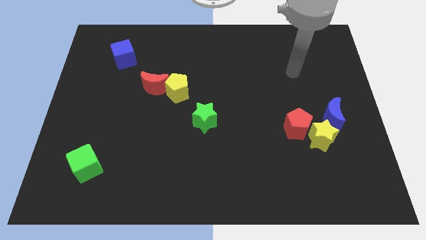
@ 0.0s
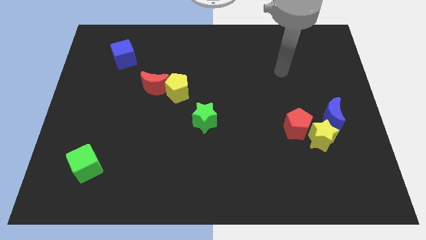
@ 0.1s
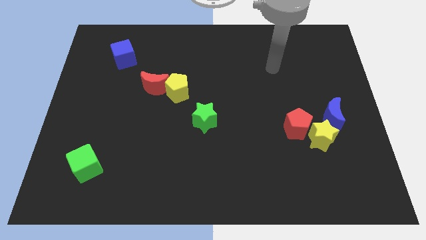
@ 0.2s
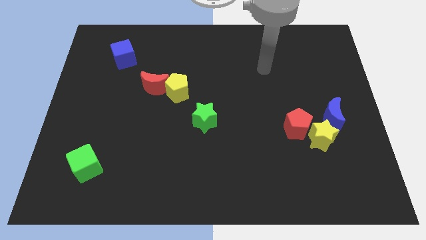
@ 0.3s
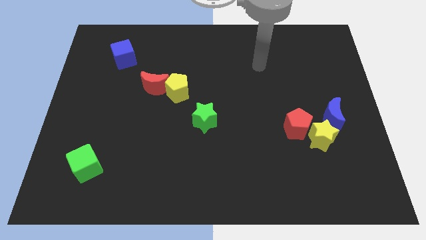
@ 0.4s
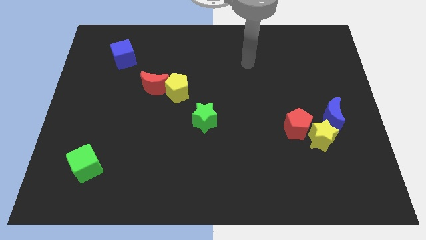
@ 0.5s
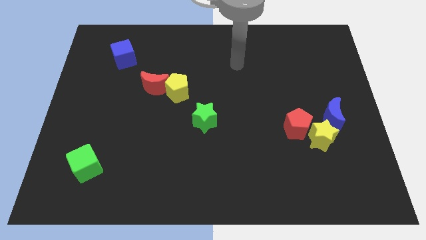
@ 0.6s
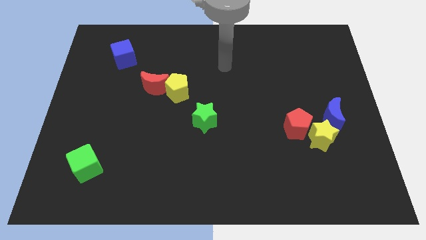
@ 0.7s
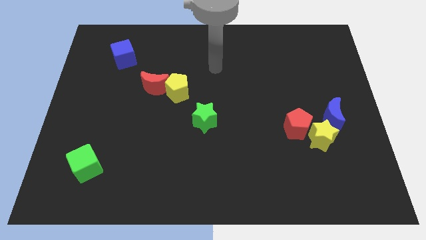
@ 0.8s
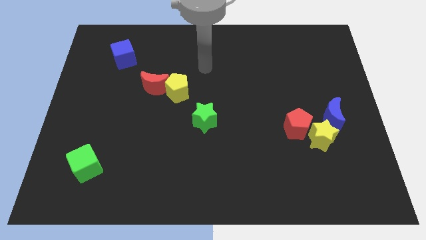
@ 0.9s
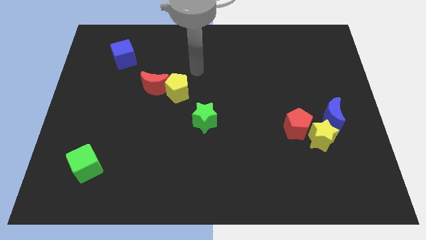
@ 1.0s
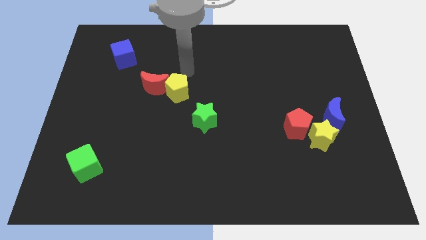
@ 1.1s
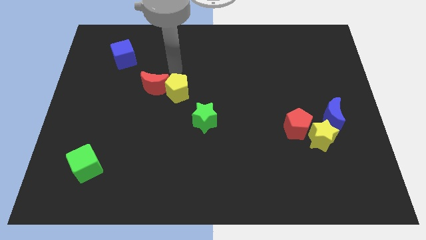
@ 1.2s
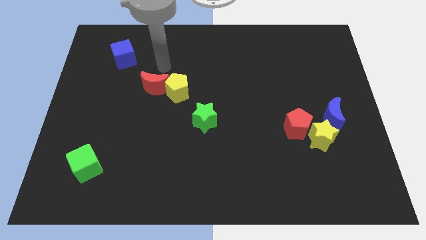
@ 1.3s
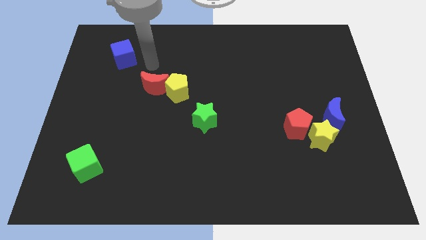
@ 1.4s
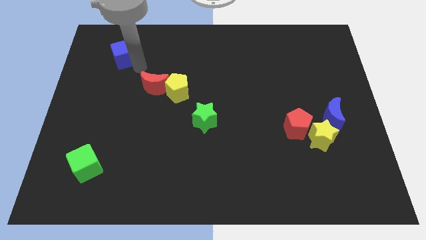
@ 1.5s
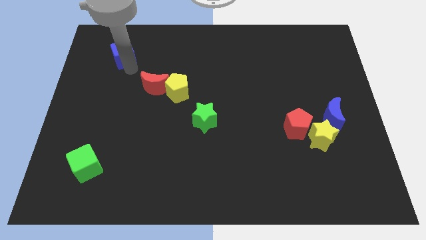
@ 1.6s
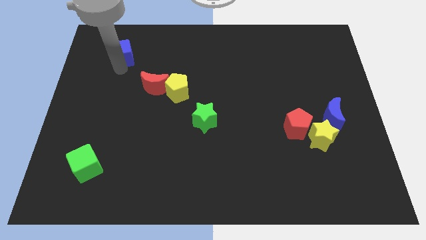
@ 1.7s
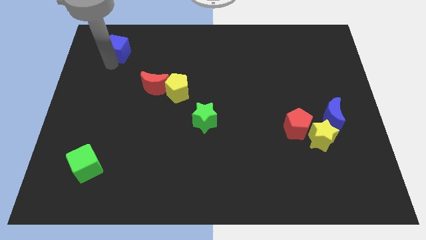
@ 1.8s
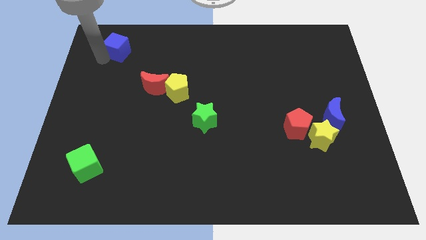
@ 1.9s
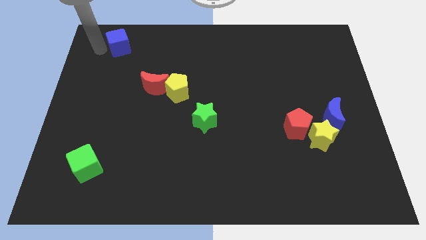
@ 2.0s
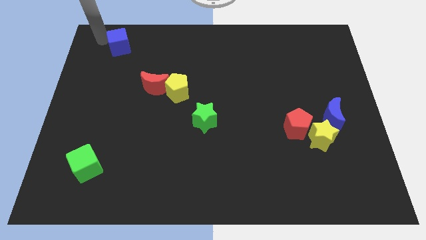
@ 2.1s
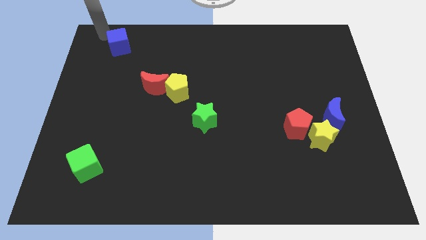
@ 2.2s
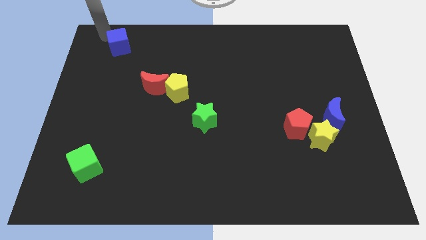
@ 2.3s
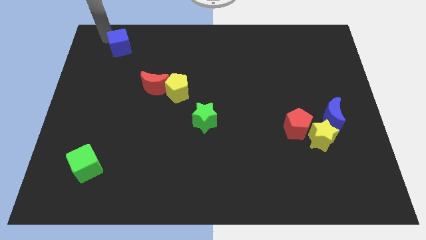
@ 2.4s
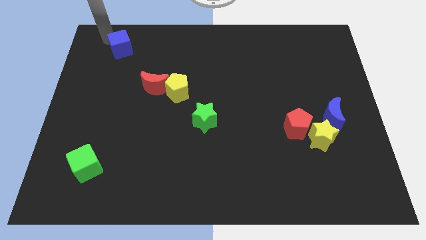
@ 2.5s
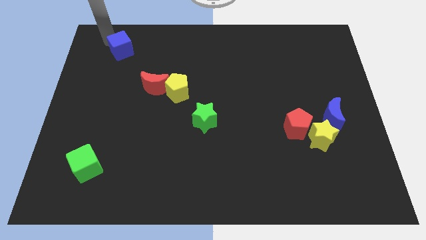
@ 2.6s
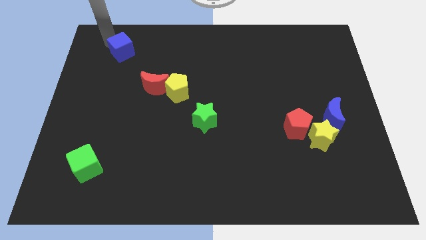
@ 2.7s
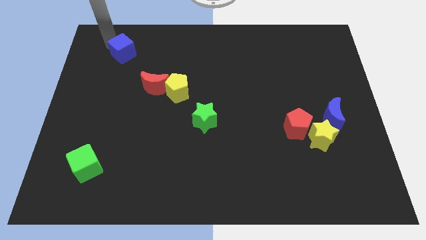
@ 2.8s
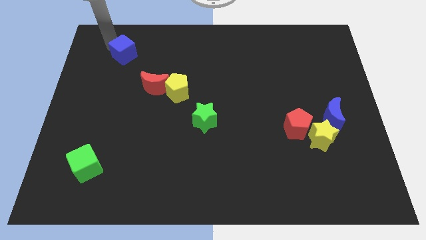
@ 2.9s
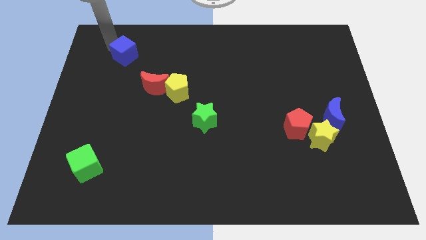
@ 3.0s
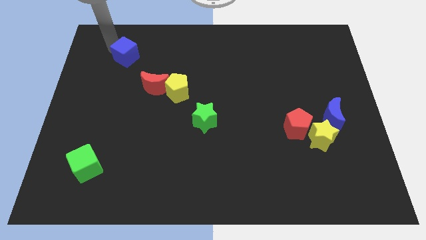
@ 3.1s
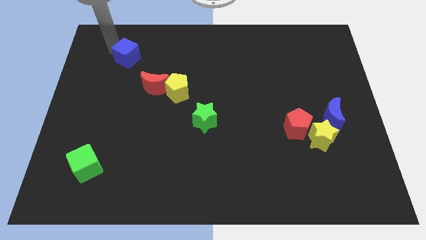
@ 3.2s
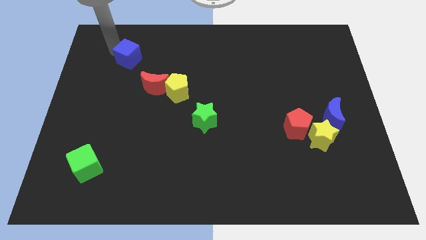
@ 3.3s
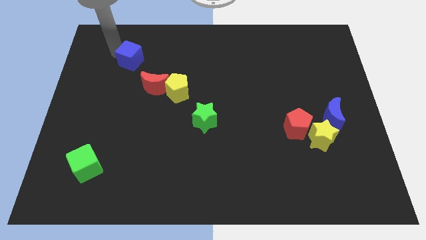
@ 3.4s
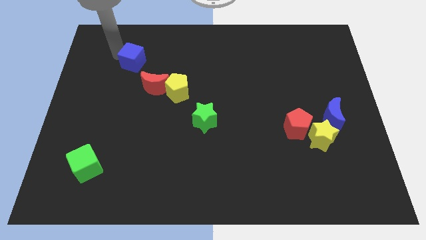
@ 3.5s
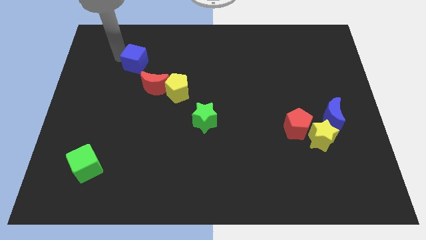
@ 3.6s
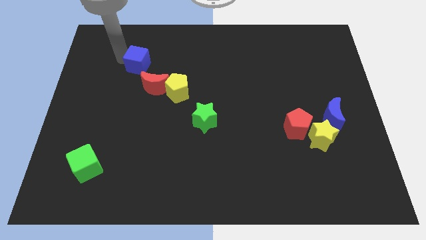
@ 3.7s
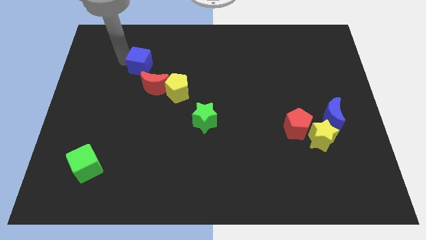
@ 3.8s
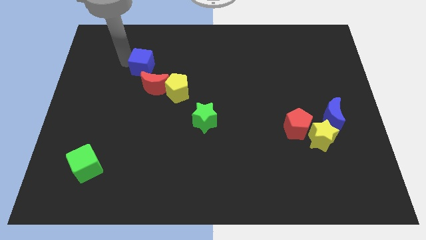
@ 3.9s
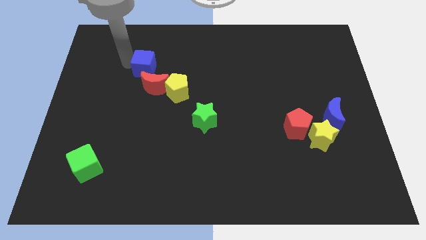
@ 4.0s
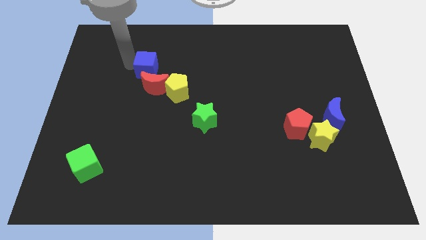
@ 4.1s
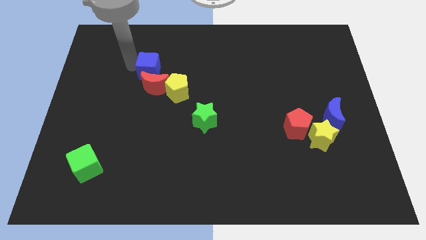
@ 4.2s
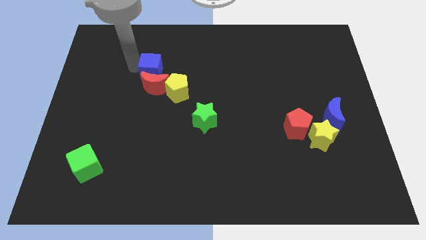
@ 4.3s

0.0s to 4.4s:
slide the blue cube slightly to the right

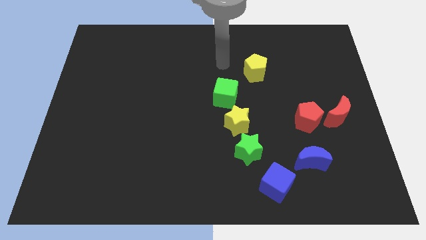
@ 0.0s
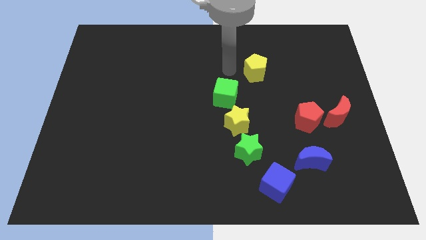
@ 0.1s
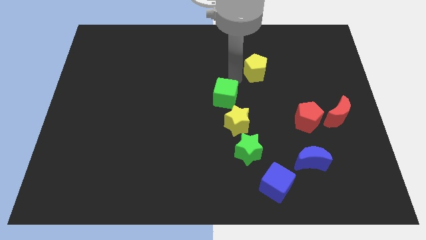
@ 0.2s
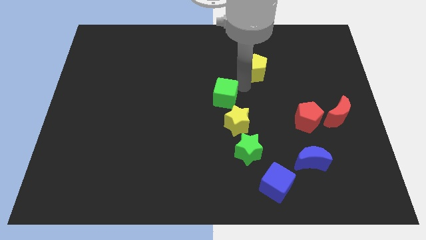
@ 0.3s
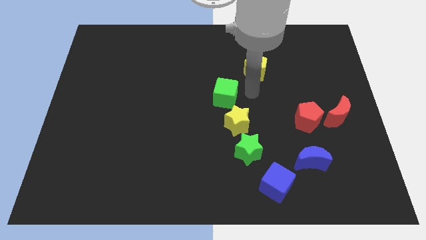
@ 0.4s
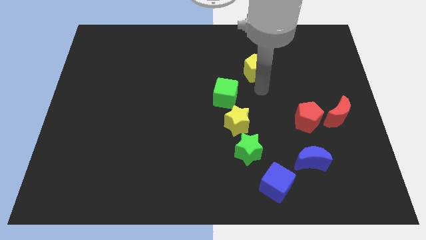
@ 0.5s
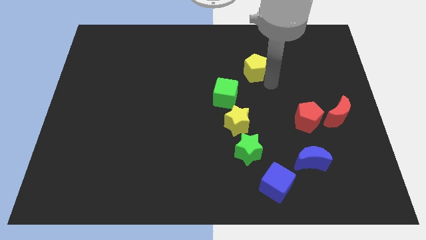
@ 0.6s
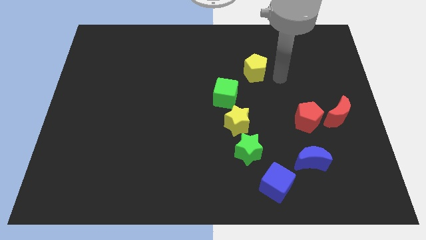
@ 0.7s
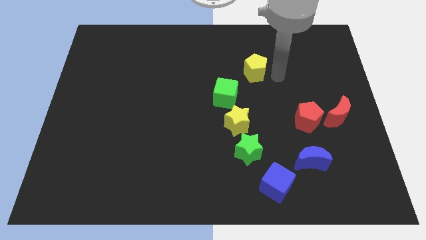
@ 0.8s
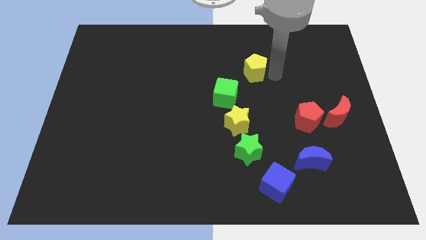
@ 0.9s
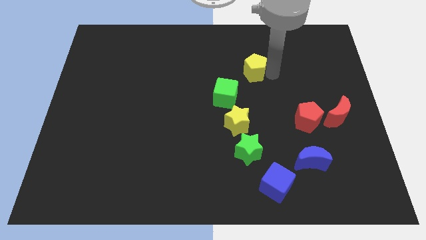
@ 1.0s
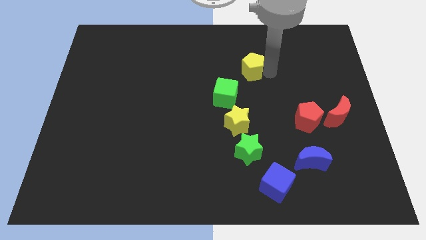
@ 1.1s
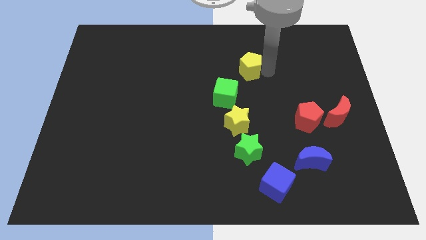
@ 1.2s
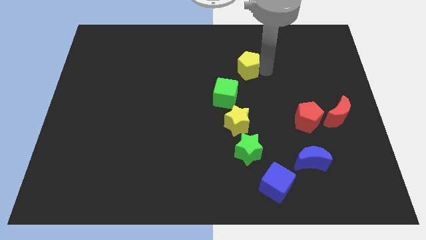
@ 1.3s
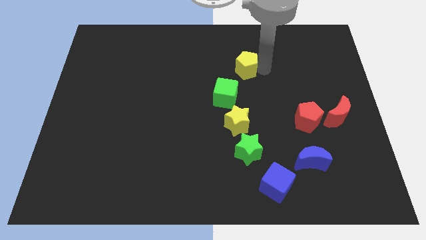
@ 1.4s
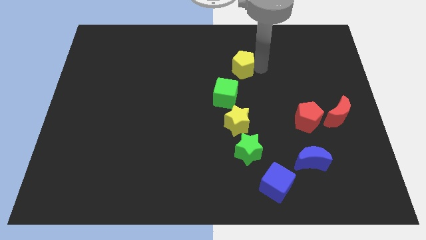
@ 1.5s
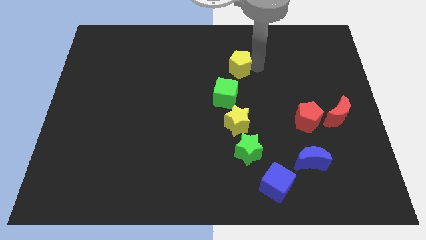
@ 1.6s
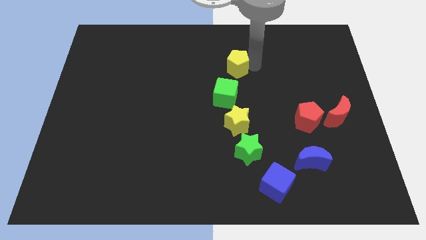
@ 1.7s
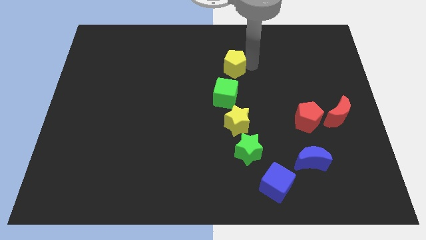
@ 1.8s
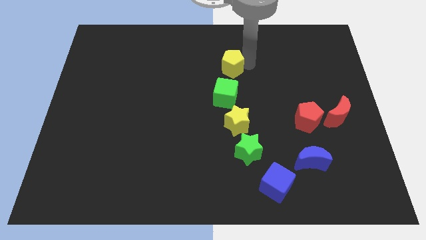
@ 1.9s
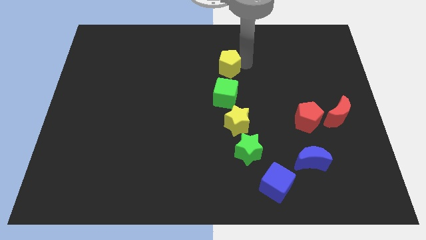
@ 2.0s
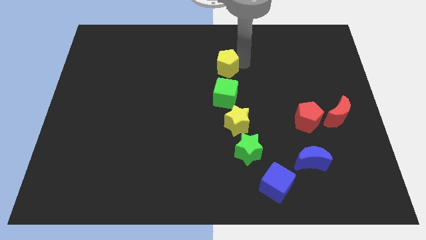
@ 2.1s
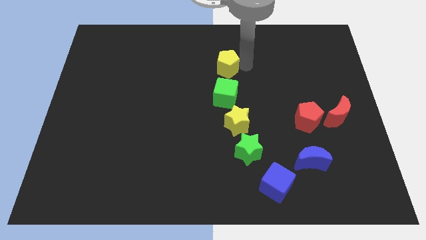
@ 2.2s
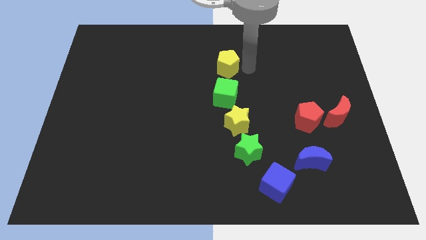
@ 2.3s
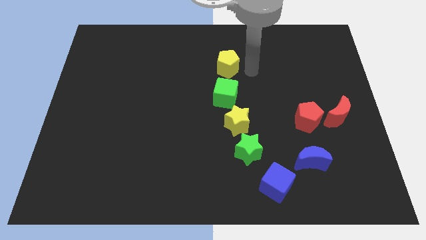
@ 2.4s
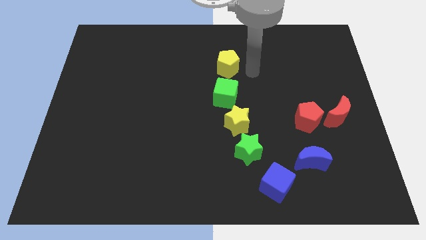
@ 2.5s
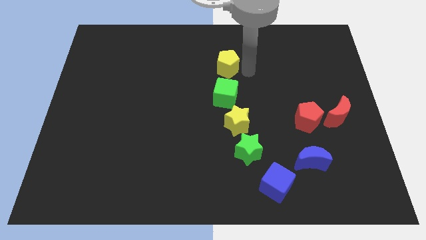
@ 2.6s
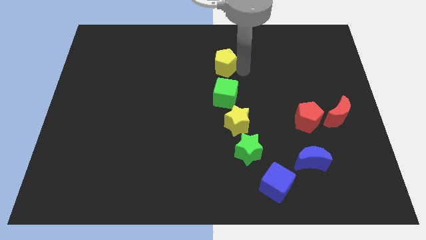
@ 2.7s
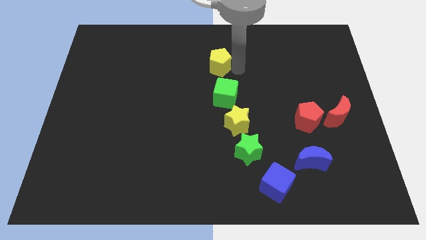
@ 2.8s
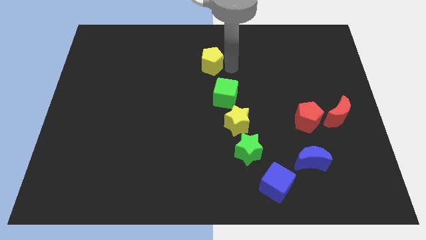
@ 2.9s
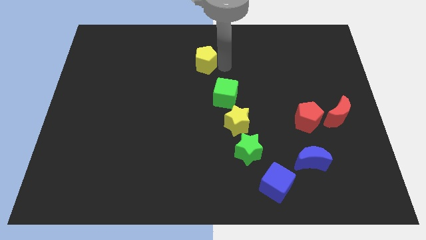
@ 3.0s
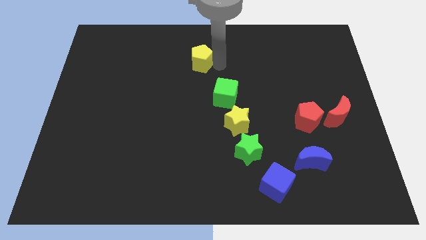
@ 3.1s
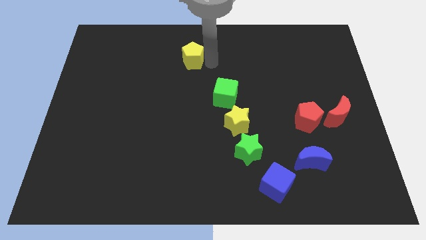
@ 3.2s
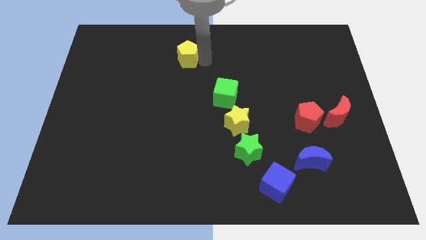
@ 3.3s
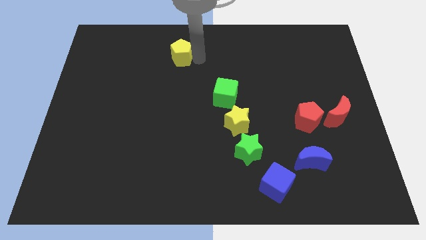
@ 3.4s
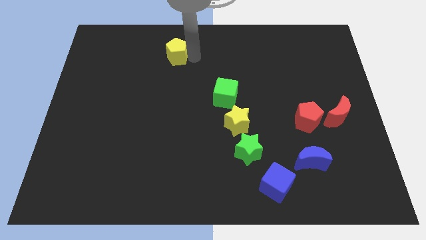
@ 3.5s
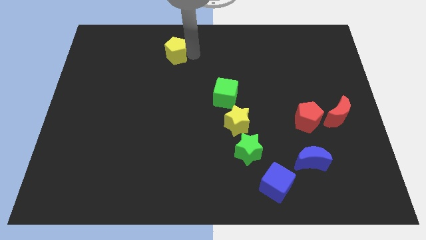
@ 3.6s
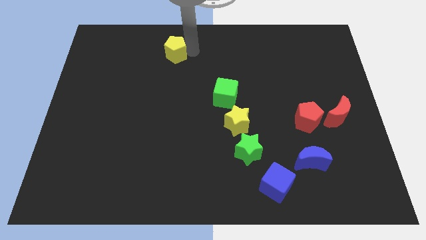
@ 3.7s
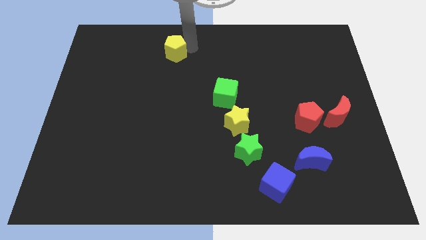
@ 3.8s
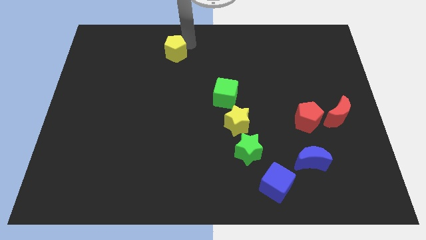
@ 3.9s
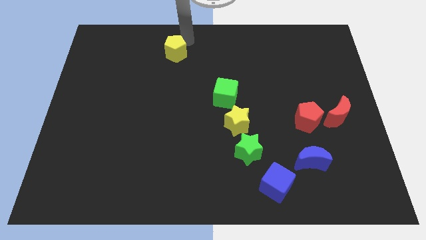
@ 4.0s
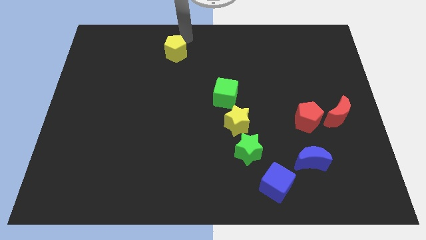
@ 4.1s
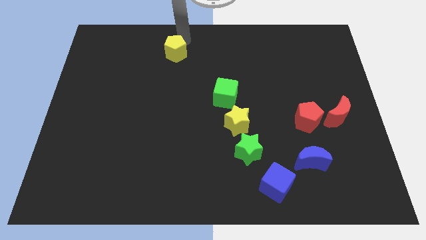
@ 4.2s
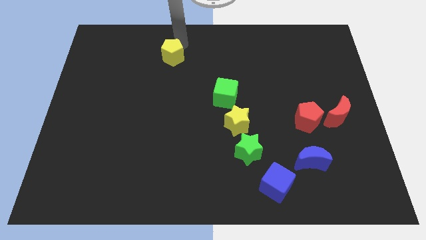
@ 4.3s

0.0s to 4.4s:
slide the yellow pentagon to the left
